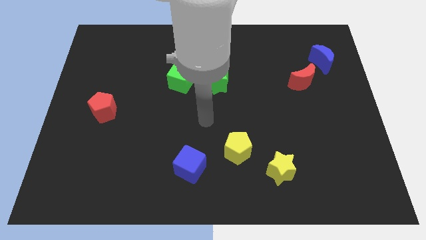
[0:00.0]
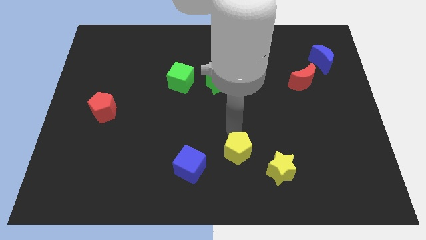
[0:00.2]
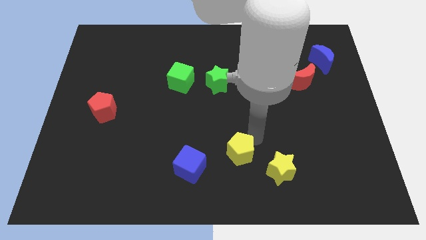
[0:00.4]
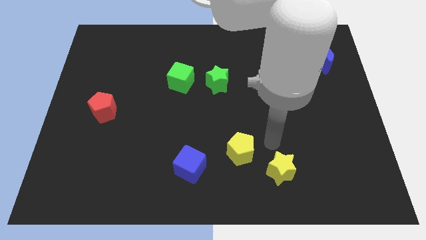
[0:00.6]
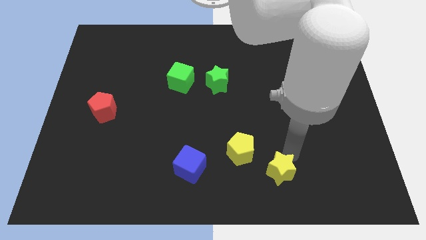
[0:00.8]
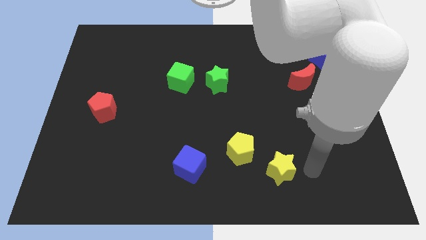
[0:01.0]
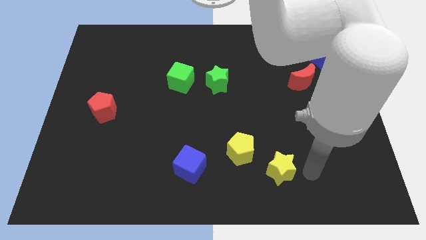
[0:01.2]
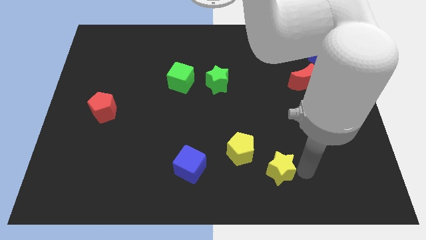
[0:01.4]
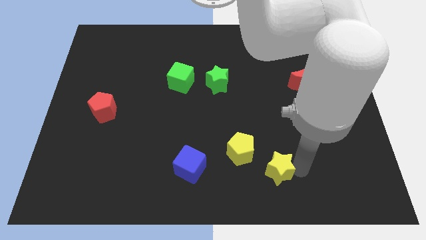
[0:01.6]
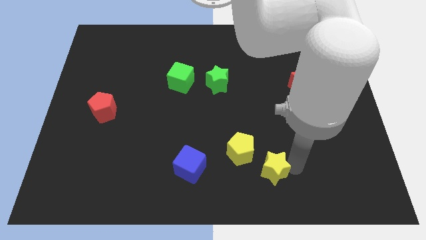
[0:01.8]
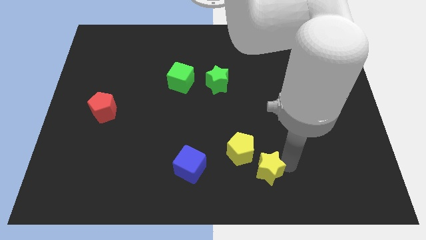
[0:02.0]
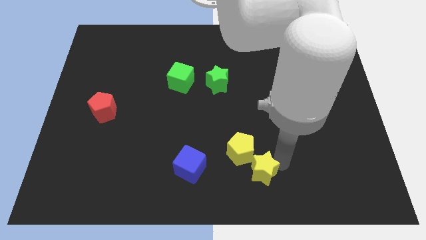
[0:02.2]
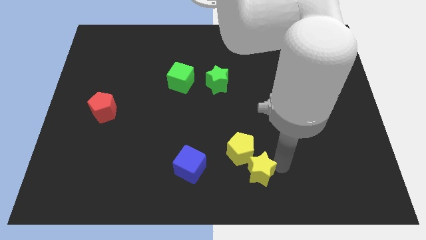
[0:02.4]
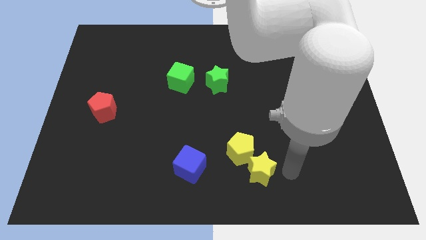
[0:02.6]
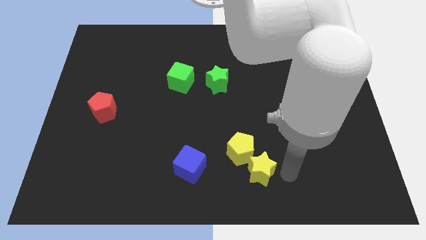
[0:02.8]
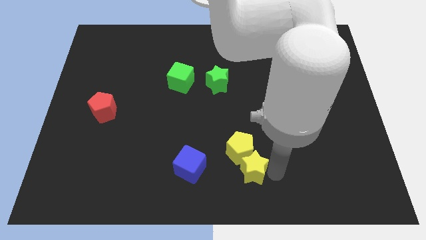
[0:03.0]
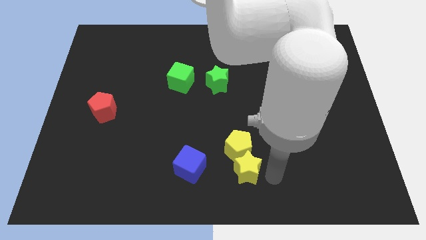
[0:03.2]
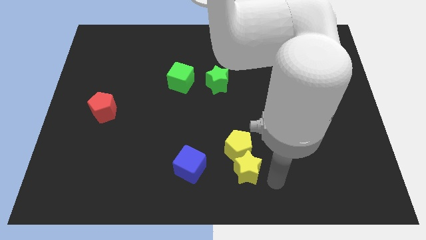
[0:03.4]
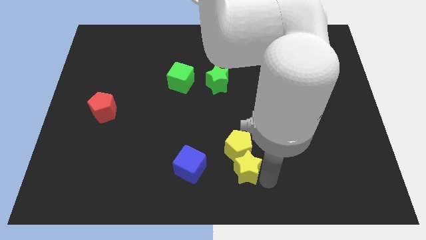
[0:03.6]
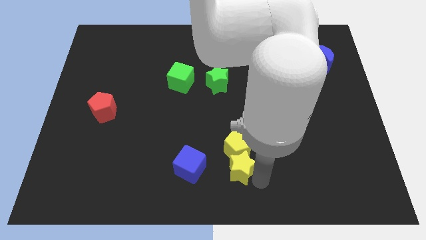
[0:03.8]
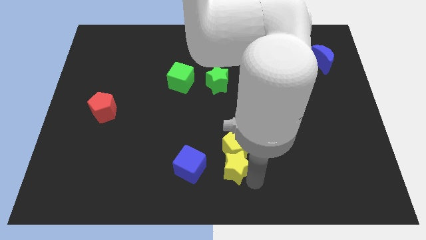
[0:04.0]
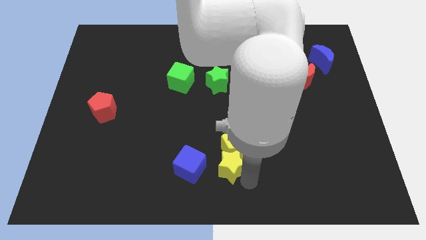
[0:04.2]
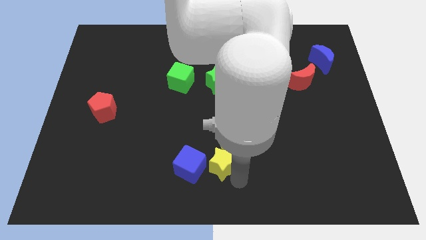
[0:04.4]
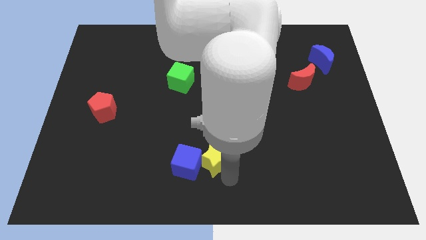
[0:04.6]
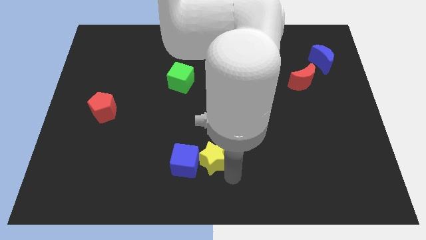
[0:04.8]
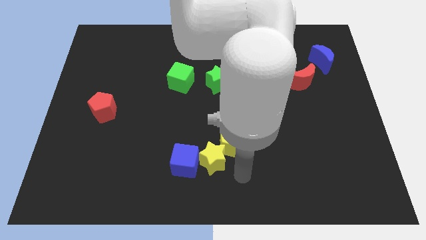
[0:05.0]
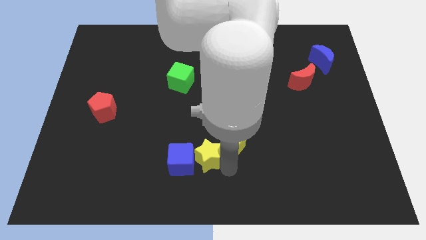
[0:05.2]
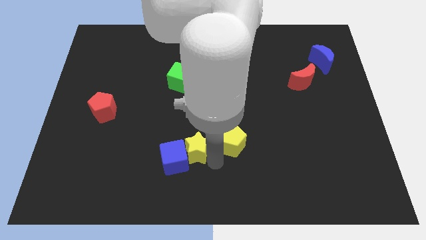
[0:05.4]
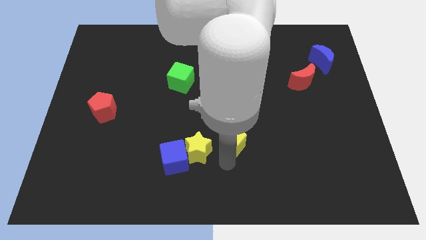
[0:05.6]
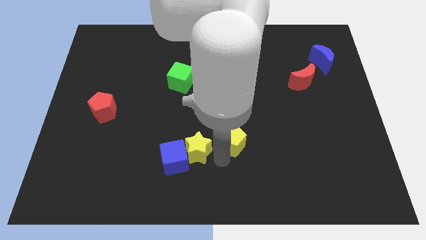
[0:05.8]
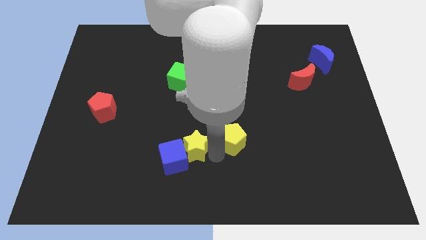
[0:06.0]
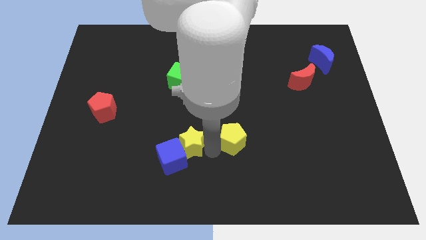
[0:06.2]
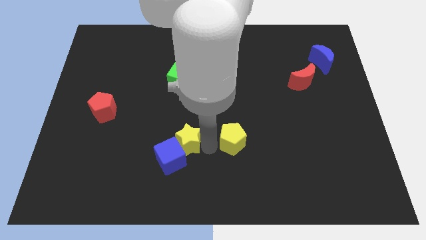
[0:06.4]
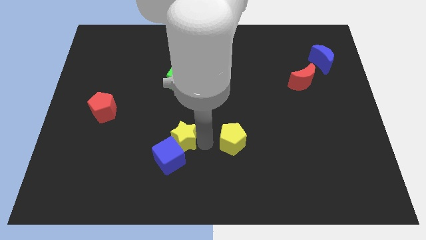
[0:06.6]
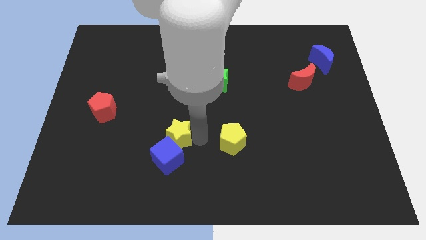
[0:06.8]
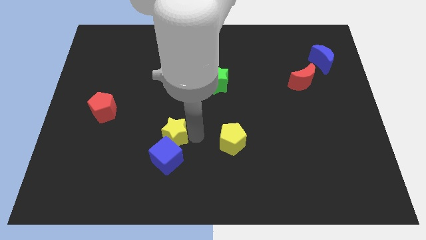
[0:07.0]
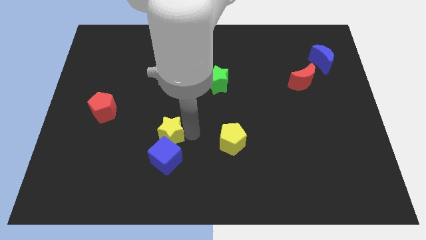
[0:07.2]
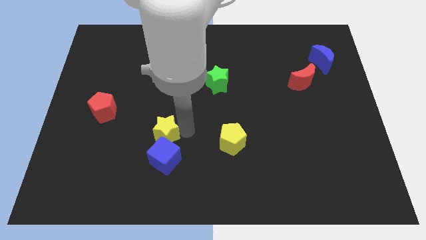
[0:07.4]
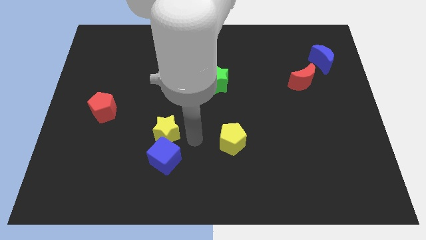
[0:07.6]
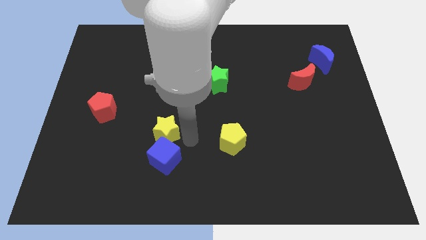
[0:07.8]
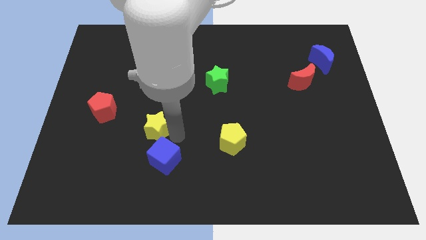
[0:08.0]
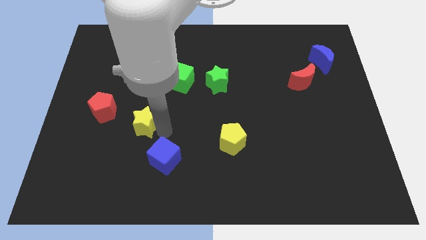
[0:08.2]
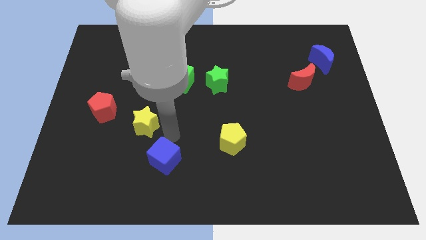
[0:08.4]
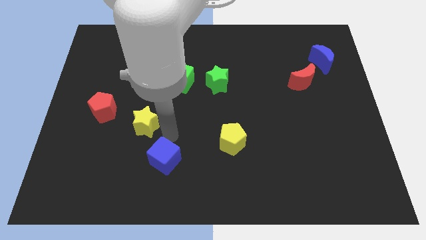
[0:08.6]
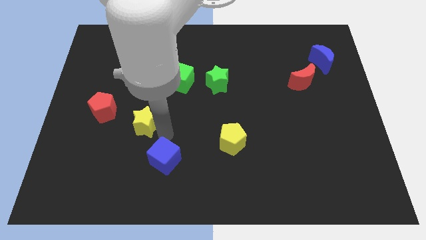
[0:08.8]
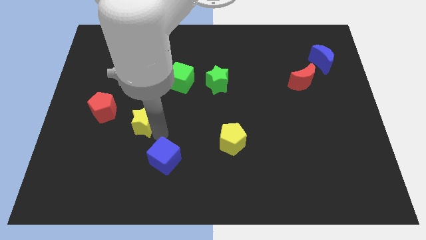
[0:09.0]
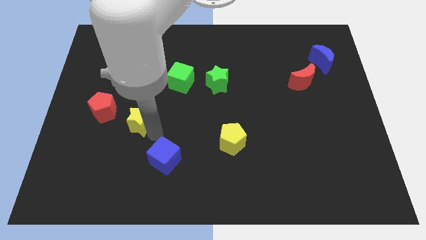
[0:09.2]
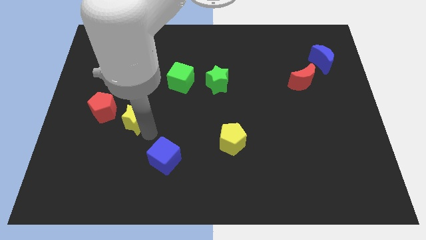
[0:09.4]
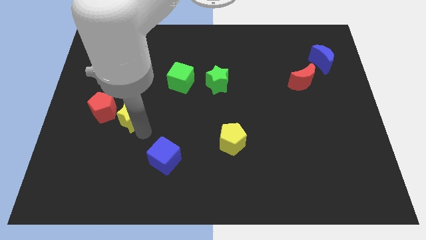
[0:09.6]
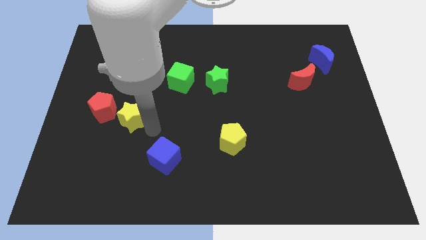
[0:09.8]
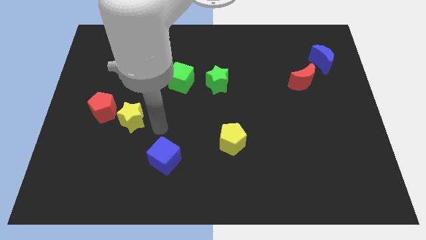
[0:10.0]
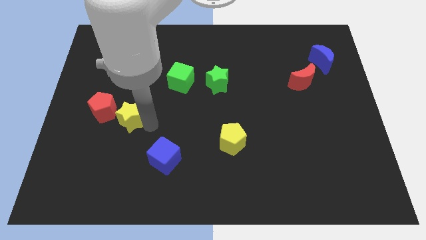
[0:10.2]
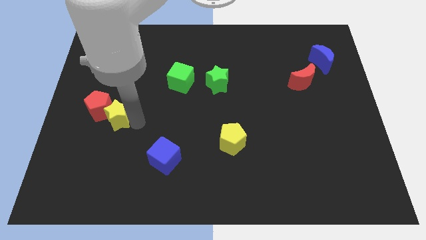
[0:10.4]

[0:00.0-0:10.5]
push the yellow star close to the red pentagon

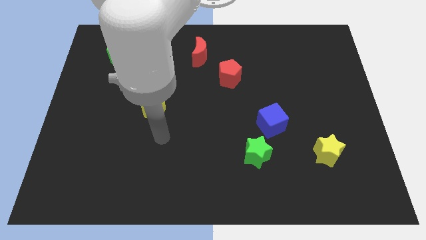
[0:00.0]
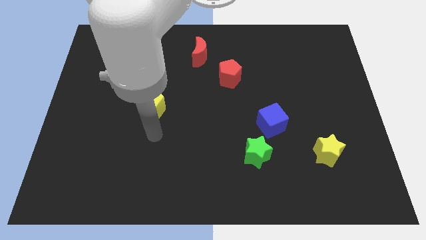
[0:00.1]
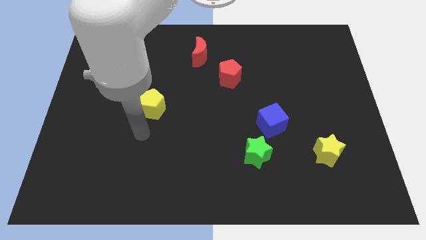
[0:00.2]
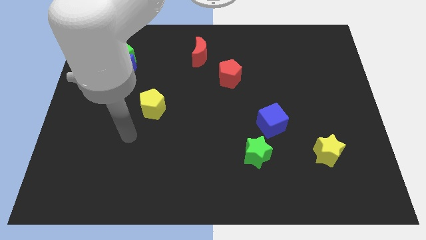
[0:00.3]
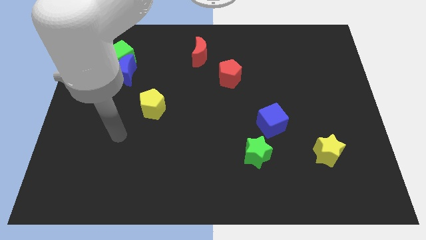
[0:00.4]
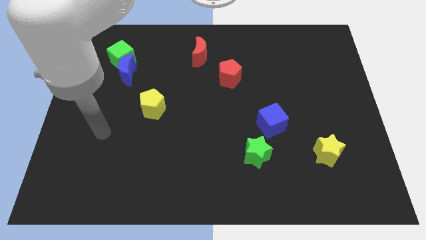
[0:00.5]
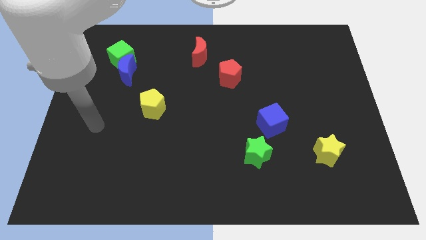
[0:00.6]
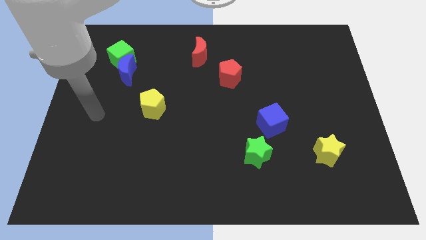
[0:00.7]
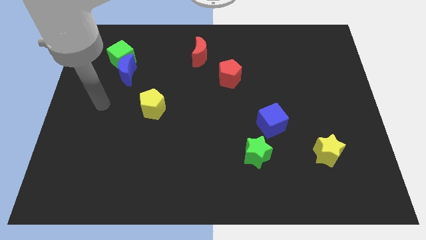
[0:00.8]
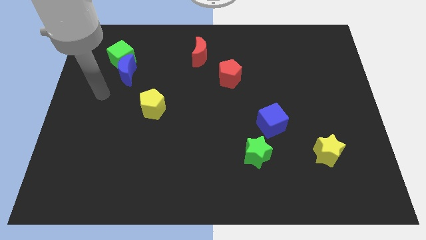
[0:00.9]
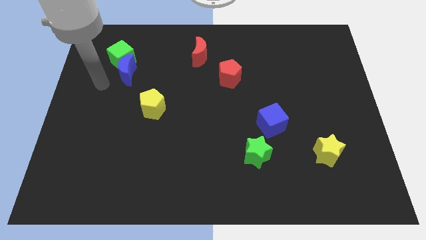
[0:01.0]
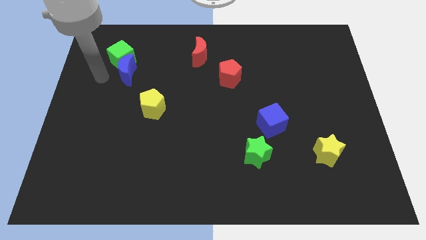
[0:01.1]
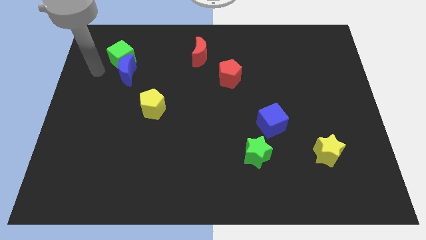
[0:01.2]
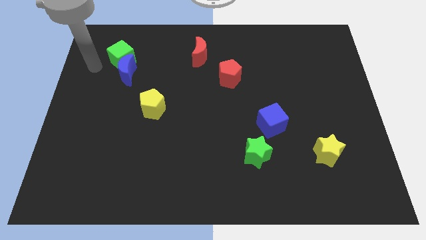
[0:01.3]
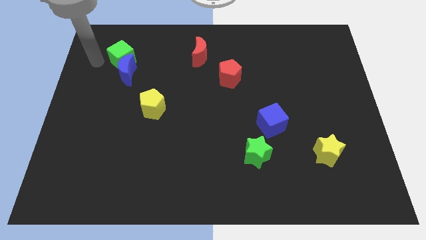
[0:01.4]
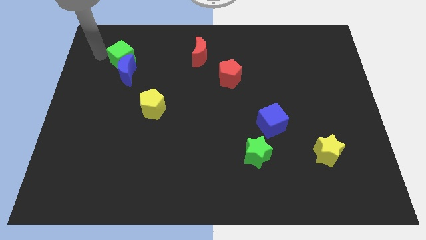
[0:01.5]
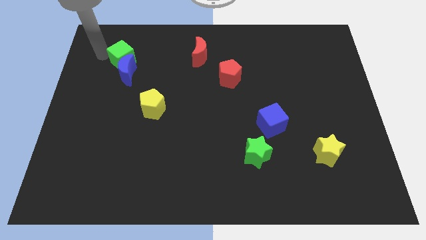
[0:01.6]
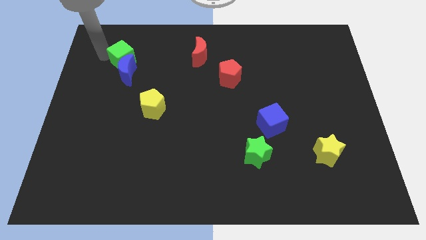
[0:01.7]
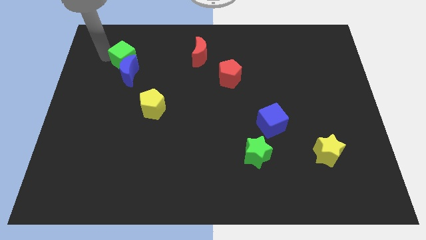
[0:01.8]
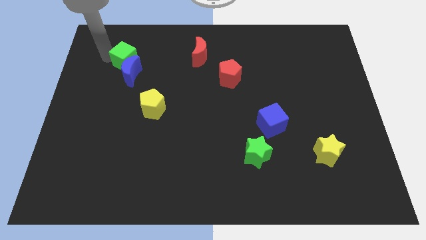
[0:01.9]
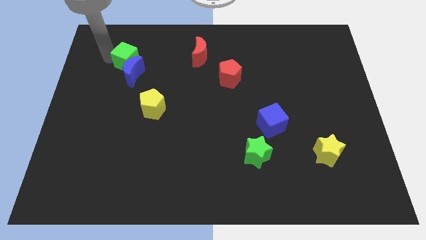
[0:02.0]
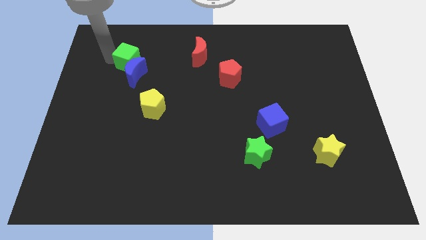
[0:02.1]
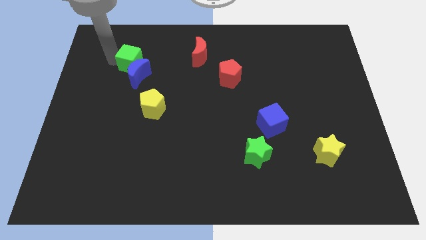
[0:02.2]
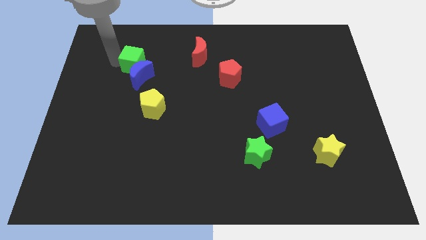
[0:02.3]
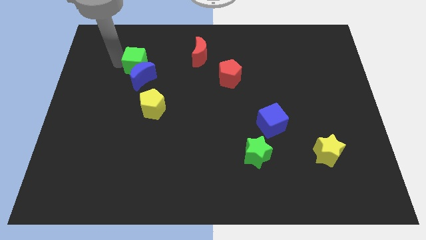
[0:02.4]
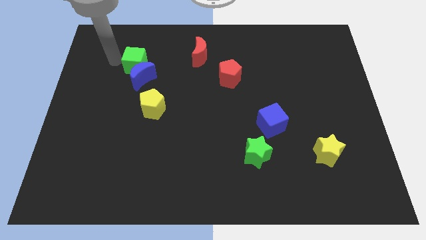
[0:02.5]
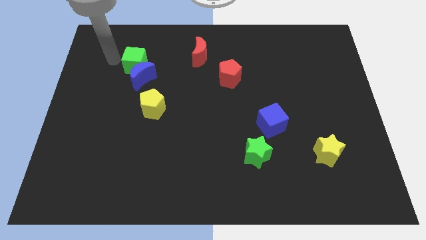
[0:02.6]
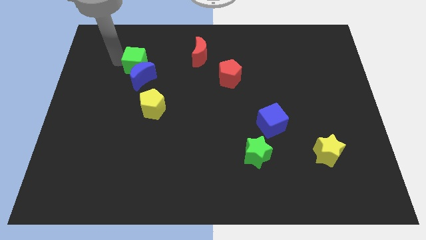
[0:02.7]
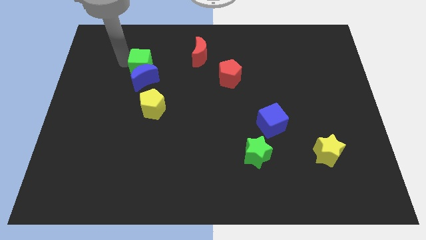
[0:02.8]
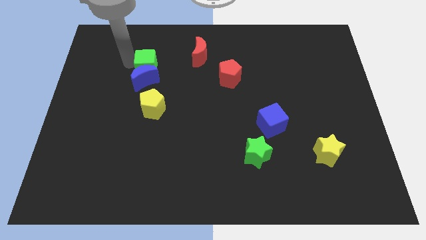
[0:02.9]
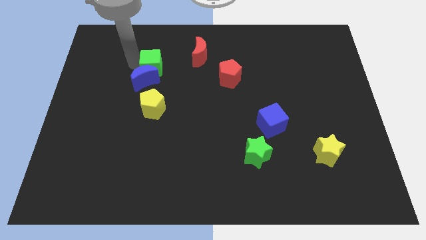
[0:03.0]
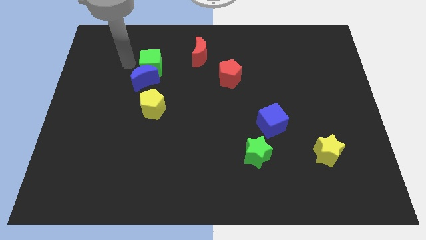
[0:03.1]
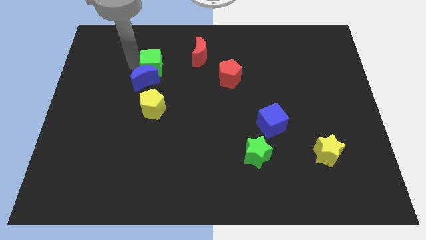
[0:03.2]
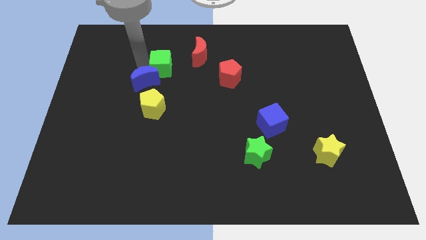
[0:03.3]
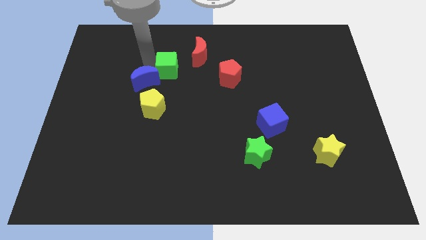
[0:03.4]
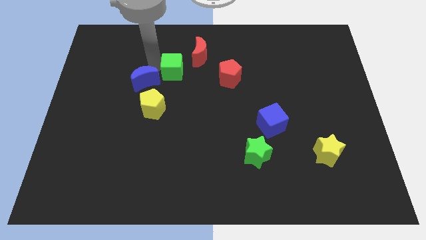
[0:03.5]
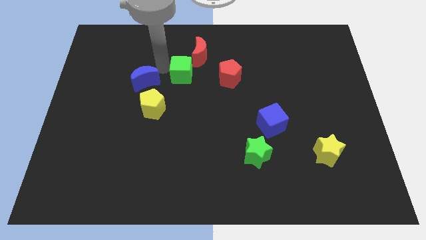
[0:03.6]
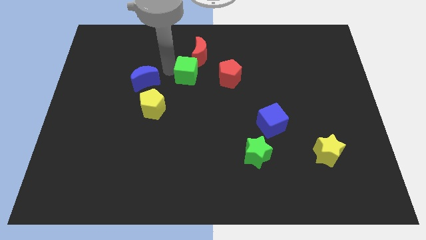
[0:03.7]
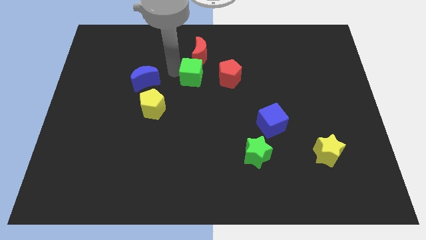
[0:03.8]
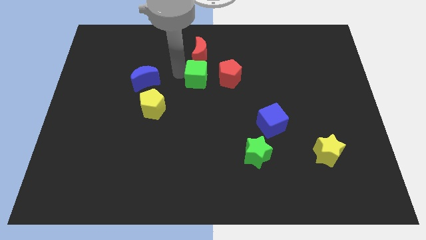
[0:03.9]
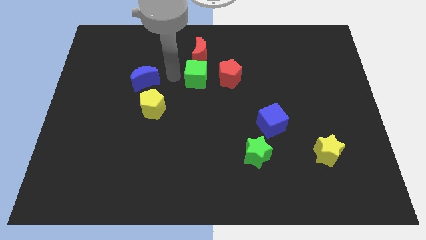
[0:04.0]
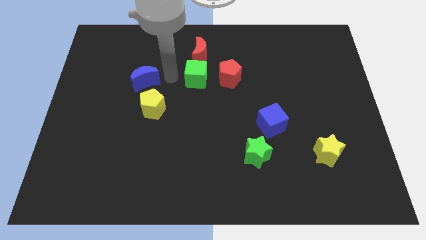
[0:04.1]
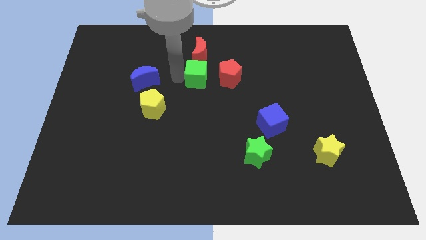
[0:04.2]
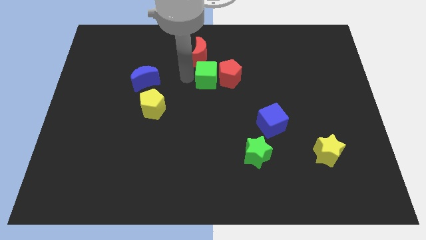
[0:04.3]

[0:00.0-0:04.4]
push the green cube close to the red pentagon
